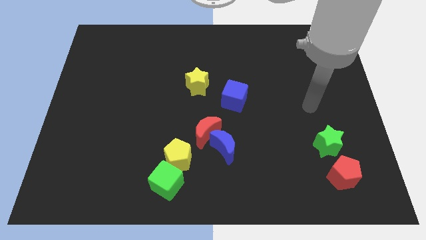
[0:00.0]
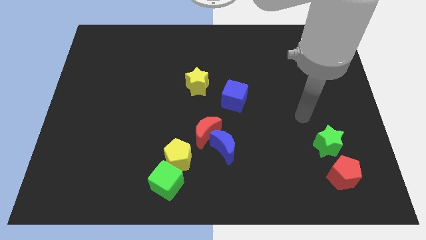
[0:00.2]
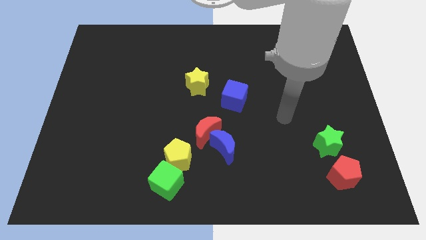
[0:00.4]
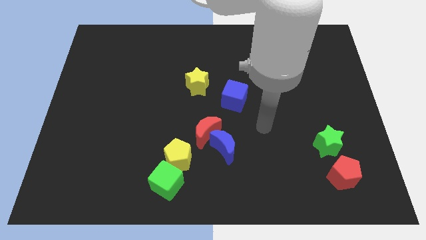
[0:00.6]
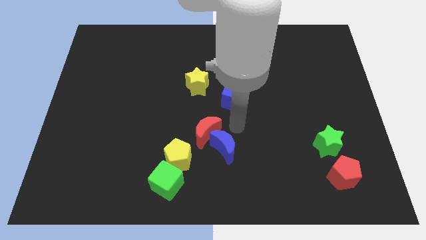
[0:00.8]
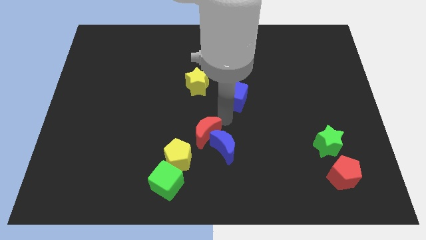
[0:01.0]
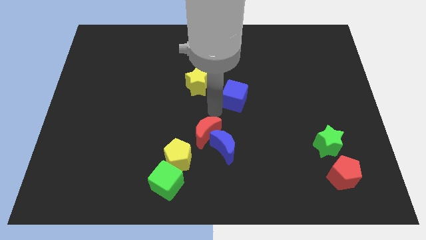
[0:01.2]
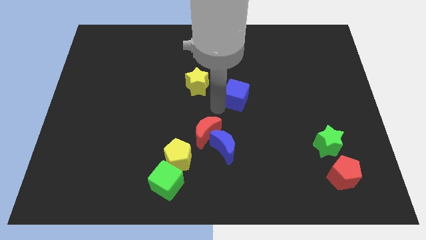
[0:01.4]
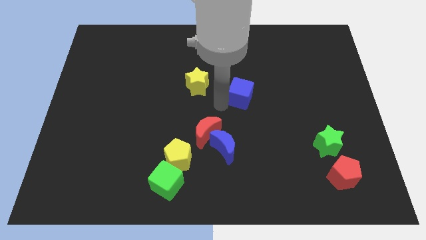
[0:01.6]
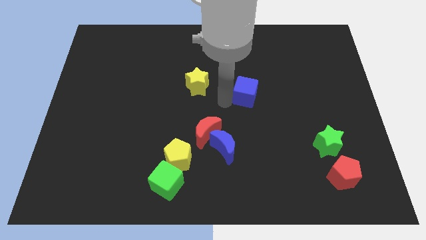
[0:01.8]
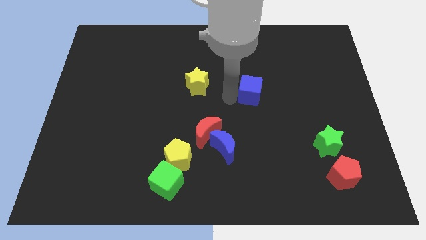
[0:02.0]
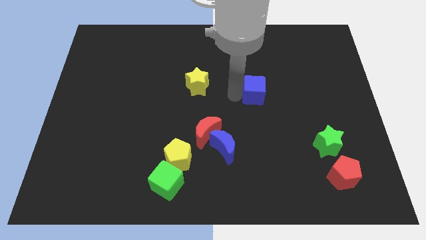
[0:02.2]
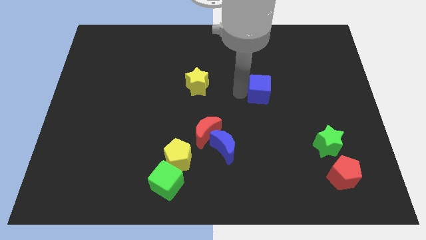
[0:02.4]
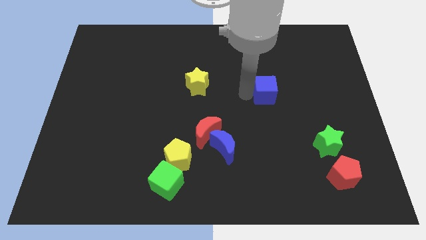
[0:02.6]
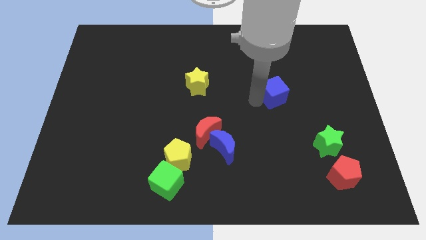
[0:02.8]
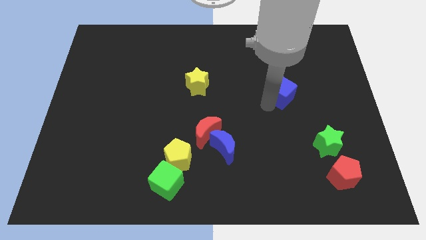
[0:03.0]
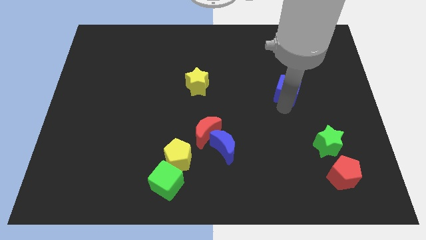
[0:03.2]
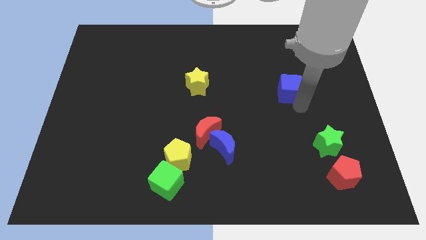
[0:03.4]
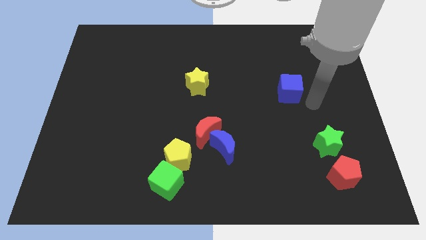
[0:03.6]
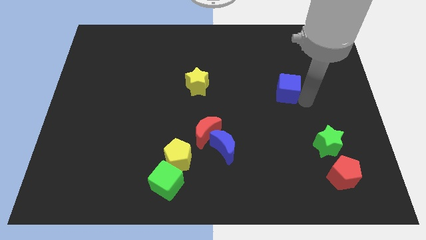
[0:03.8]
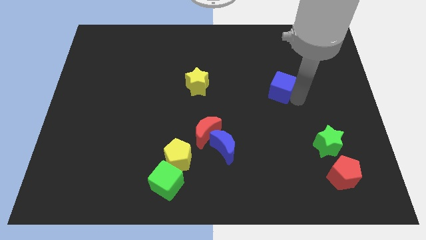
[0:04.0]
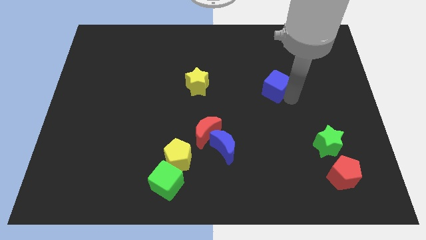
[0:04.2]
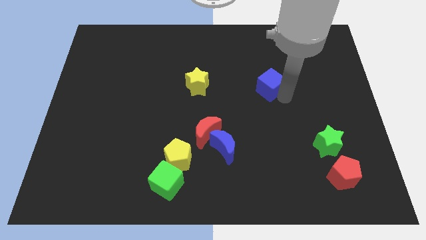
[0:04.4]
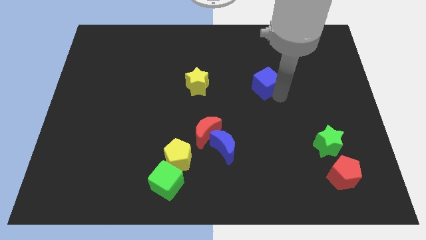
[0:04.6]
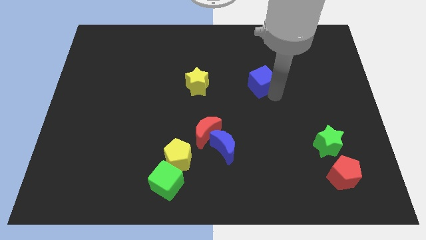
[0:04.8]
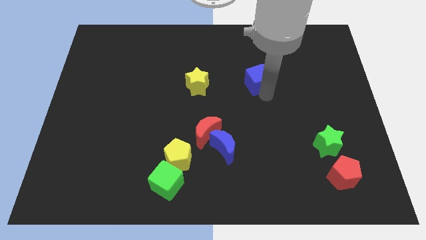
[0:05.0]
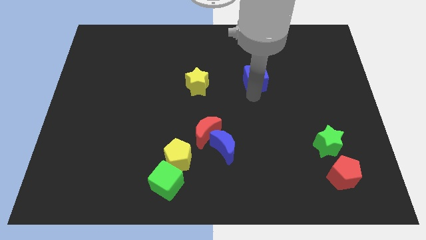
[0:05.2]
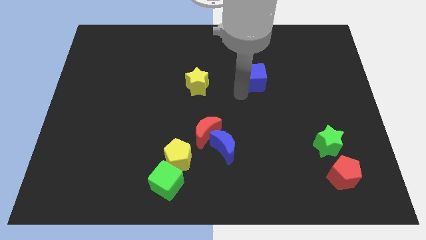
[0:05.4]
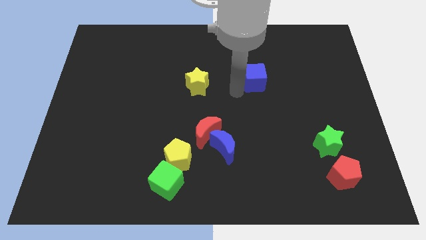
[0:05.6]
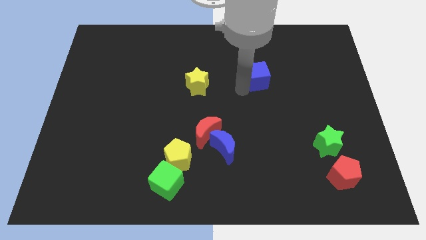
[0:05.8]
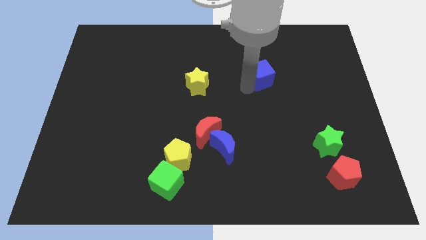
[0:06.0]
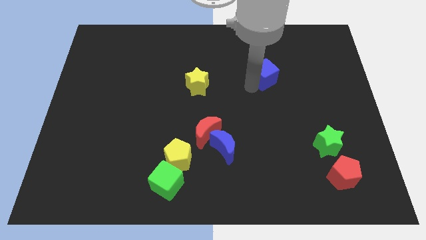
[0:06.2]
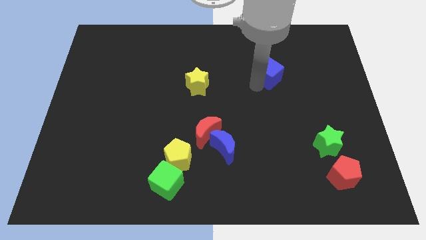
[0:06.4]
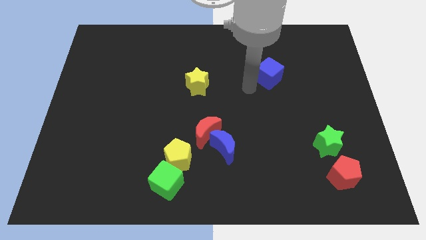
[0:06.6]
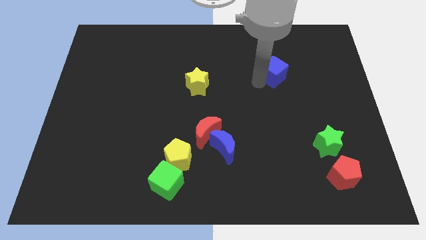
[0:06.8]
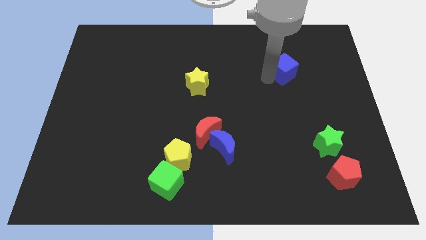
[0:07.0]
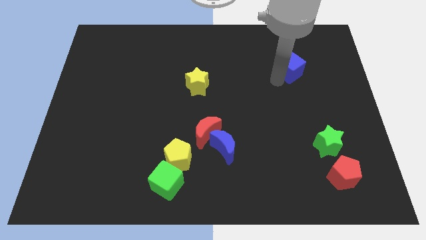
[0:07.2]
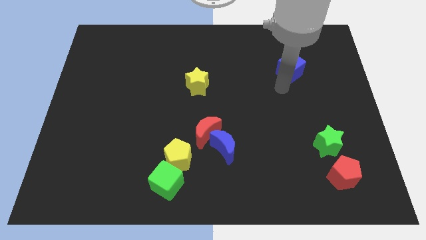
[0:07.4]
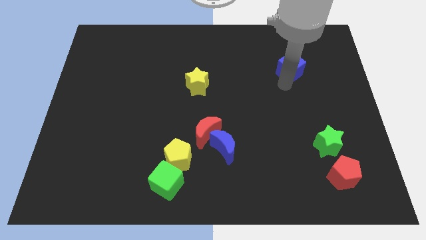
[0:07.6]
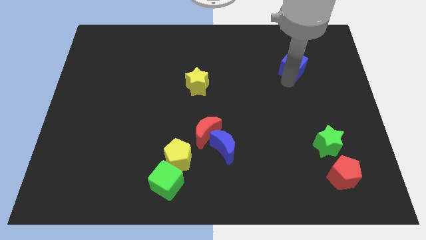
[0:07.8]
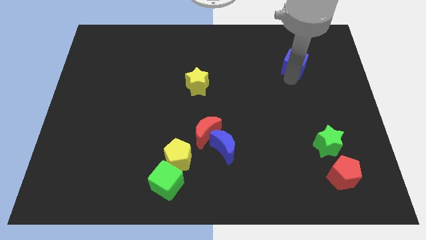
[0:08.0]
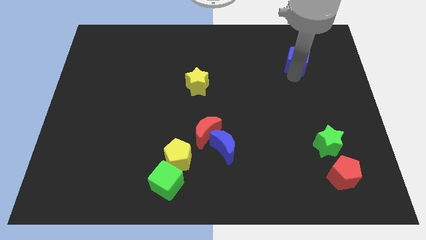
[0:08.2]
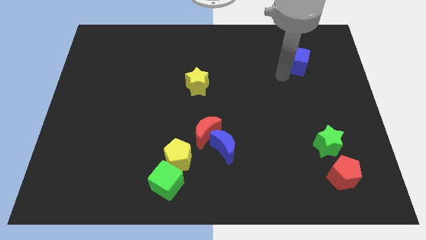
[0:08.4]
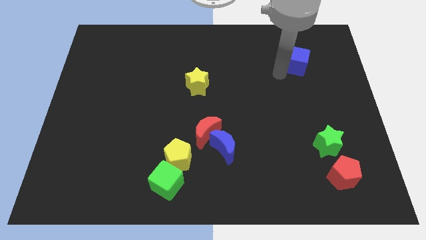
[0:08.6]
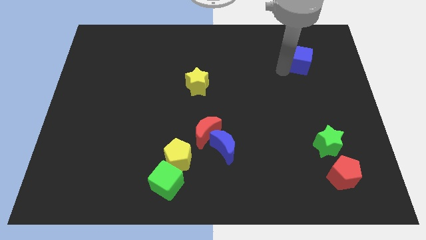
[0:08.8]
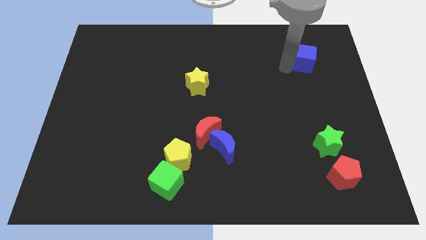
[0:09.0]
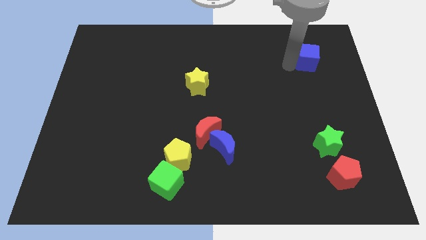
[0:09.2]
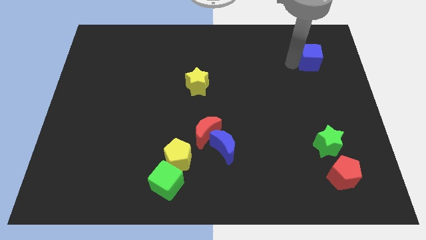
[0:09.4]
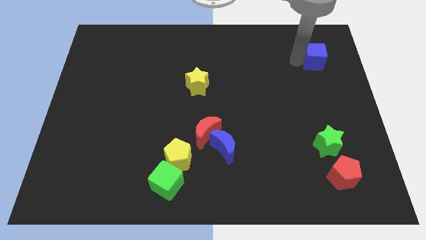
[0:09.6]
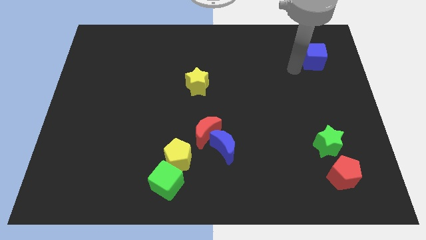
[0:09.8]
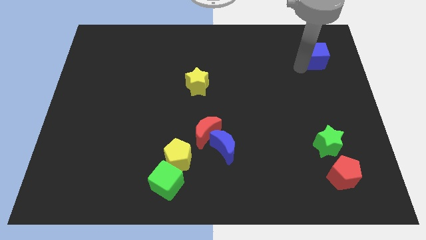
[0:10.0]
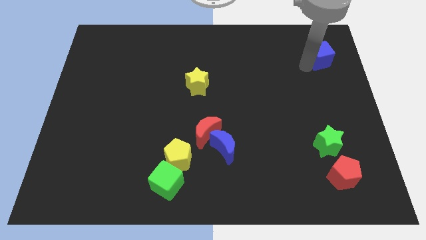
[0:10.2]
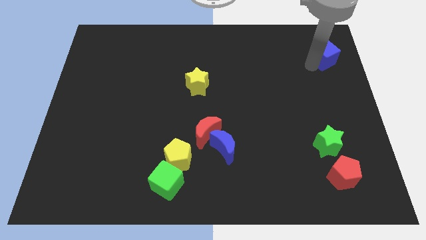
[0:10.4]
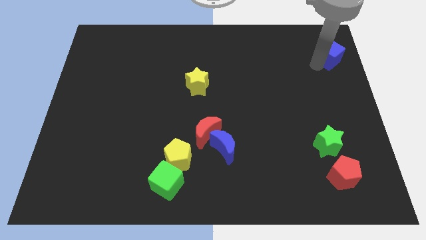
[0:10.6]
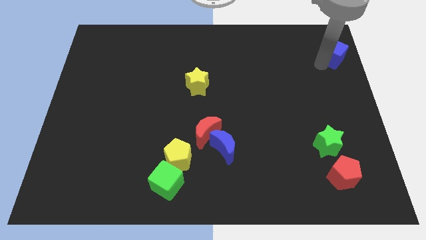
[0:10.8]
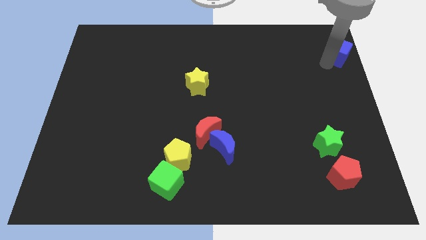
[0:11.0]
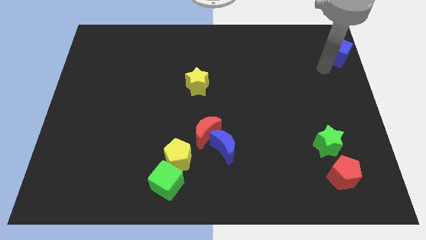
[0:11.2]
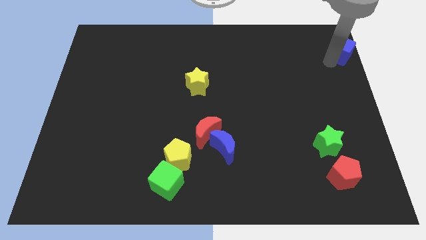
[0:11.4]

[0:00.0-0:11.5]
slide the blue cube to the top right of the board
